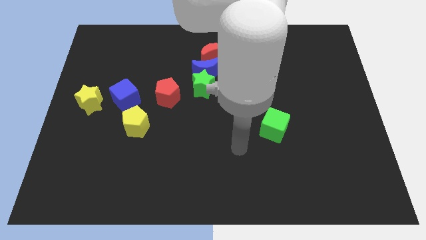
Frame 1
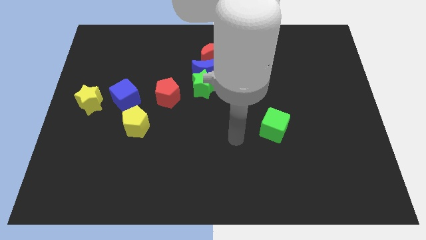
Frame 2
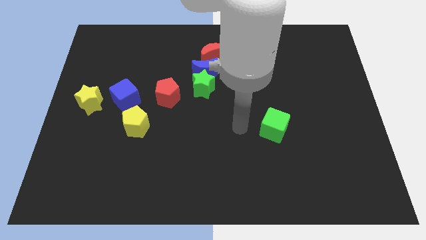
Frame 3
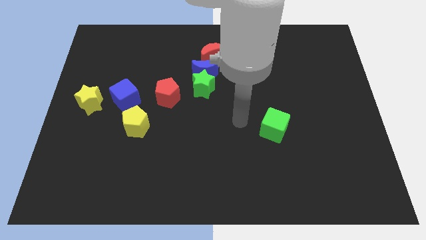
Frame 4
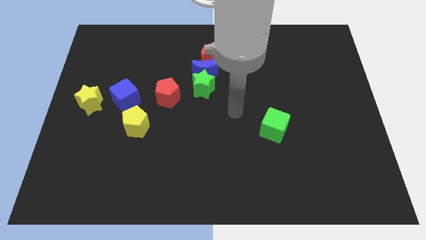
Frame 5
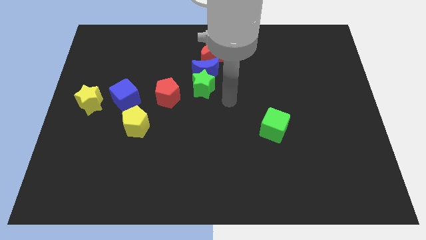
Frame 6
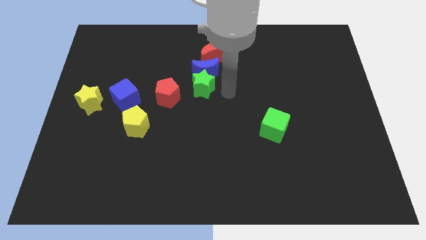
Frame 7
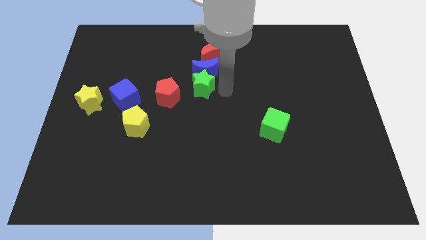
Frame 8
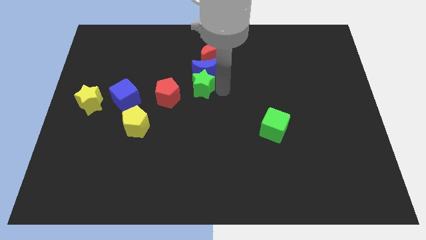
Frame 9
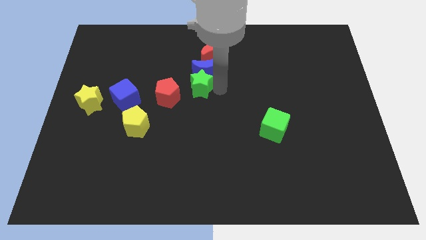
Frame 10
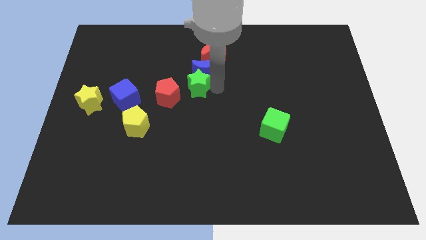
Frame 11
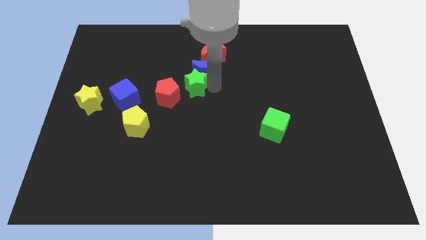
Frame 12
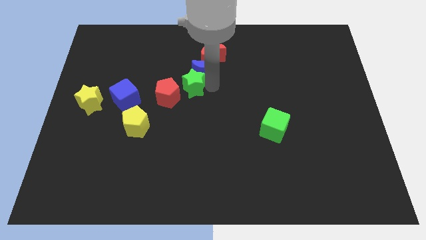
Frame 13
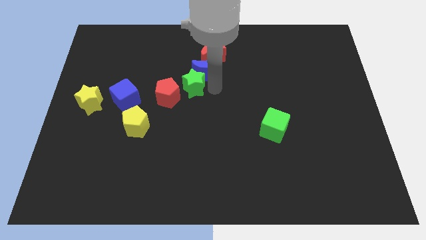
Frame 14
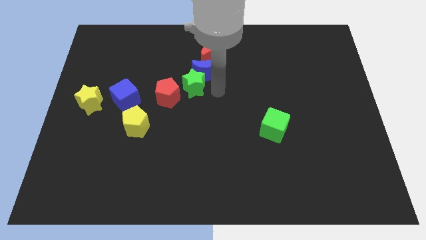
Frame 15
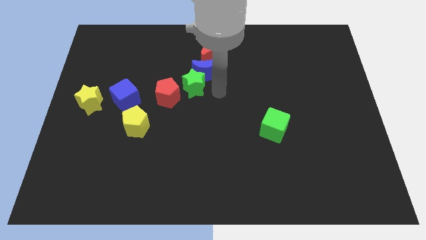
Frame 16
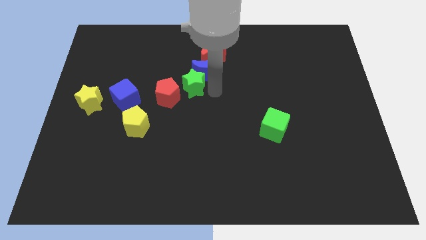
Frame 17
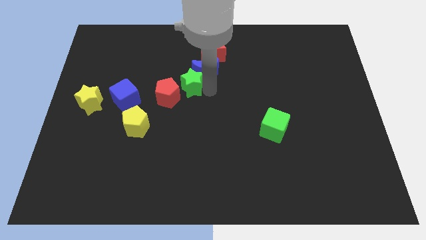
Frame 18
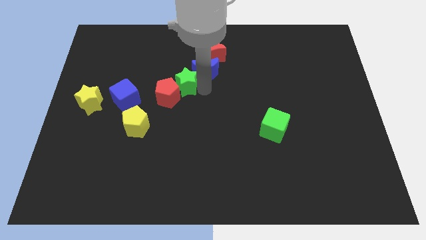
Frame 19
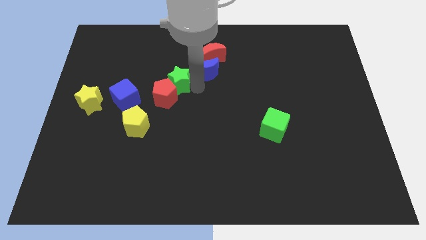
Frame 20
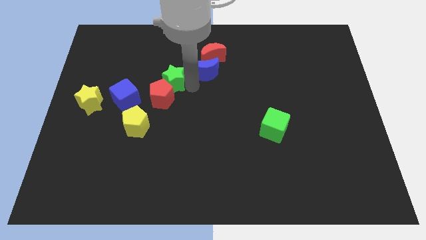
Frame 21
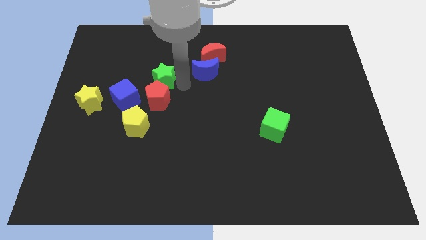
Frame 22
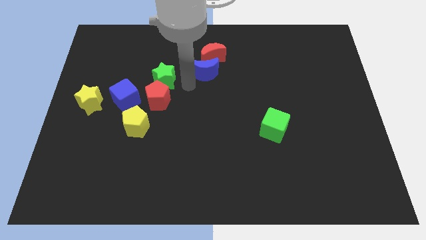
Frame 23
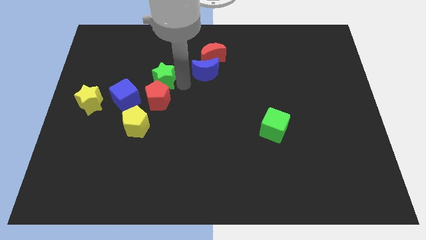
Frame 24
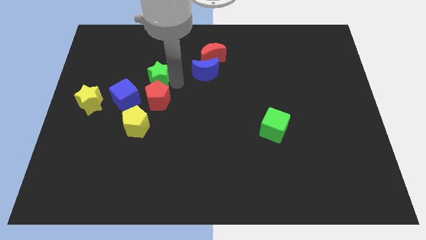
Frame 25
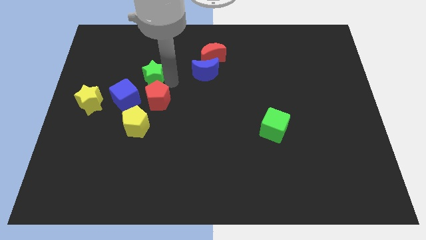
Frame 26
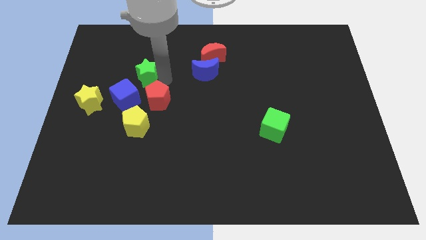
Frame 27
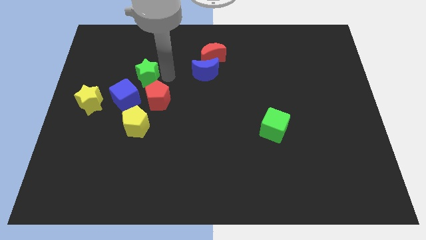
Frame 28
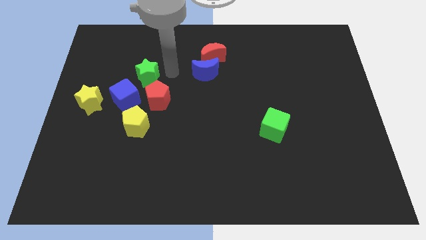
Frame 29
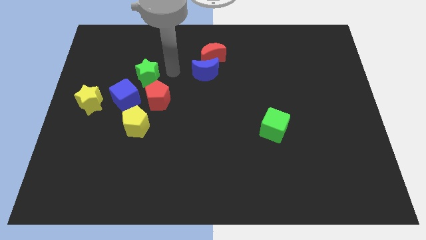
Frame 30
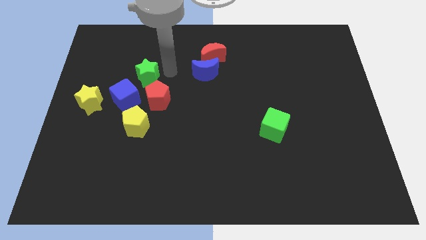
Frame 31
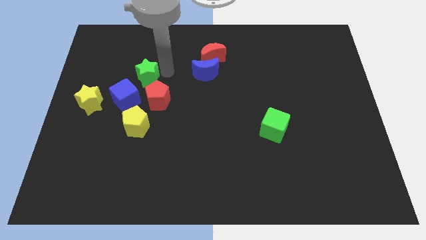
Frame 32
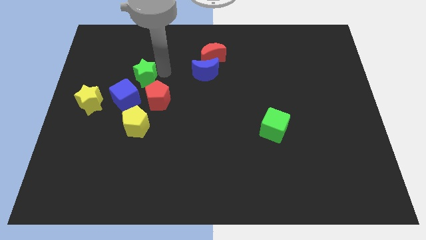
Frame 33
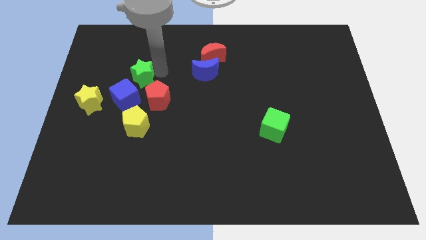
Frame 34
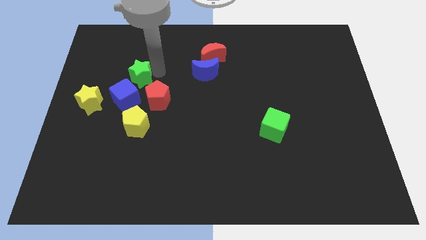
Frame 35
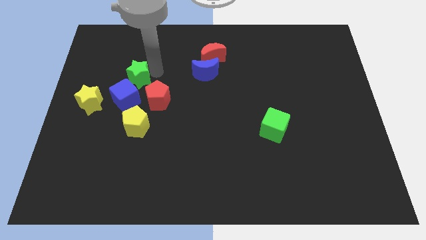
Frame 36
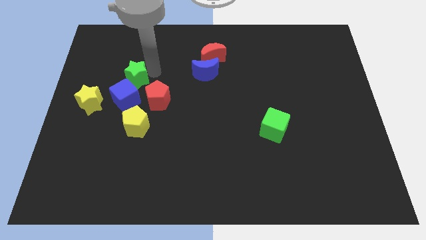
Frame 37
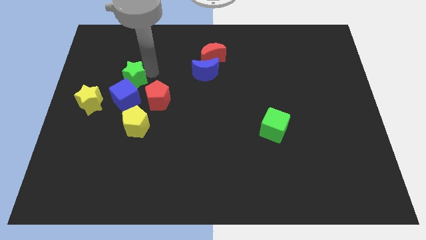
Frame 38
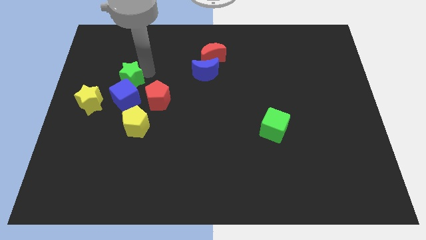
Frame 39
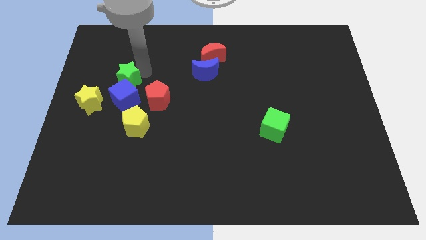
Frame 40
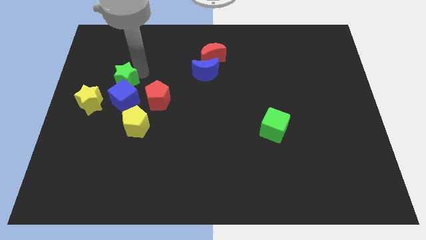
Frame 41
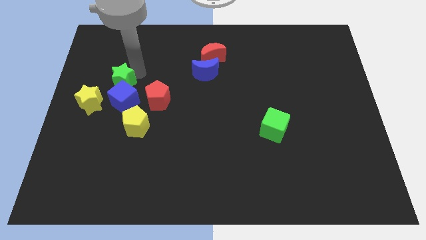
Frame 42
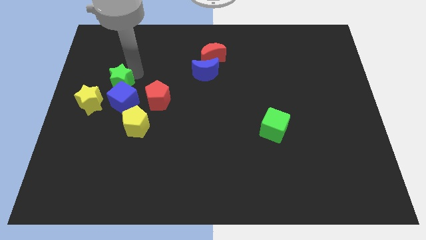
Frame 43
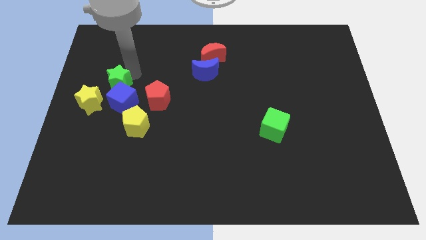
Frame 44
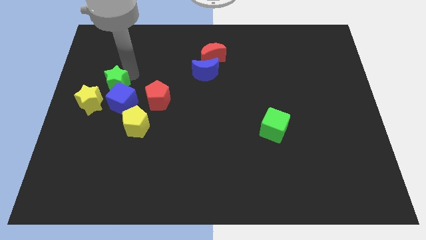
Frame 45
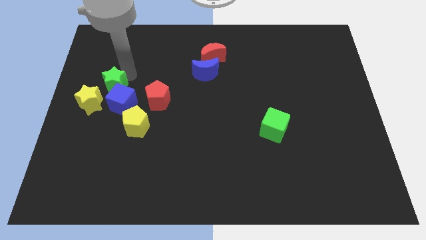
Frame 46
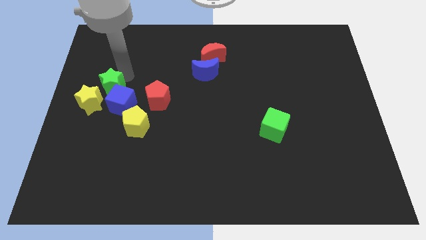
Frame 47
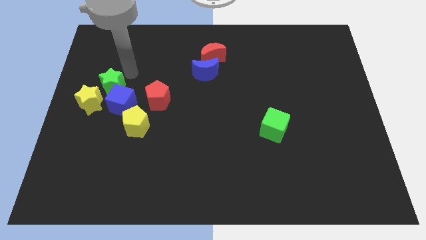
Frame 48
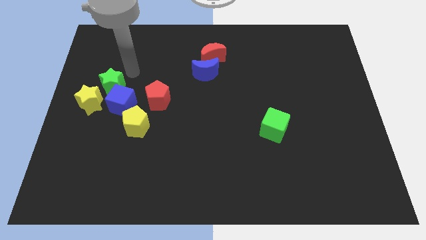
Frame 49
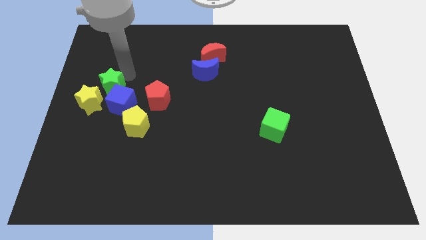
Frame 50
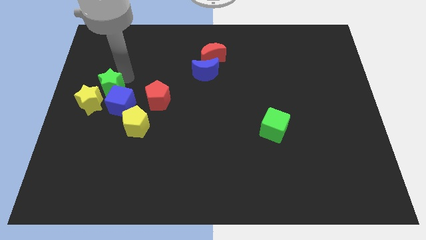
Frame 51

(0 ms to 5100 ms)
move the green star next to the yellow star

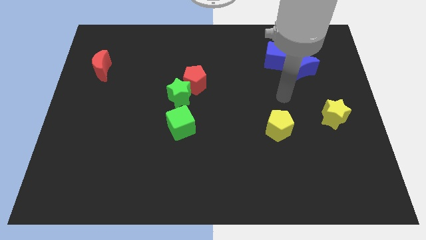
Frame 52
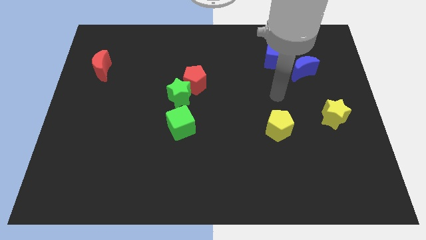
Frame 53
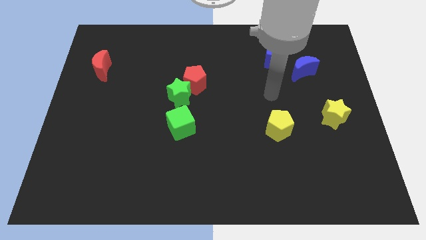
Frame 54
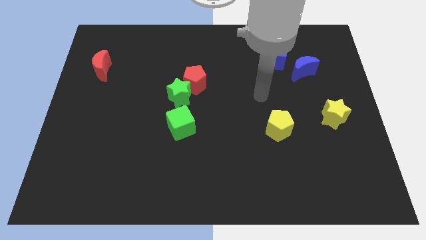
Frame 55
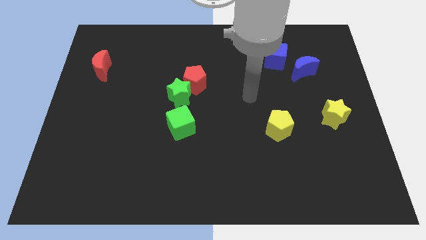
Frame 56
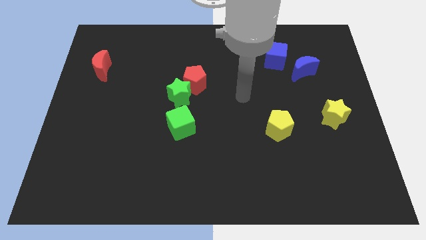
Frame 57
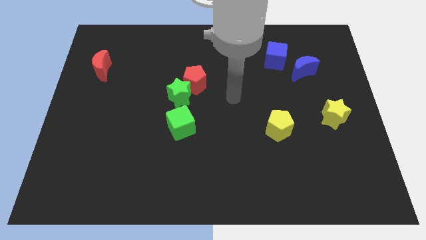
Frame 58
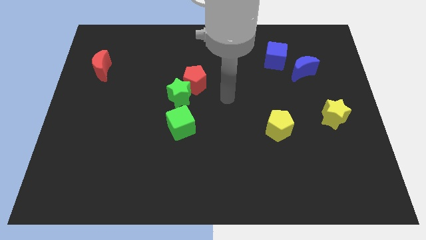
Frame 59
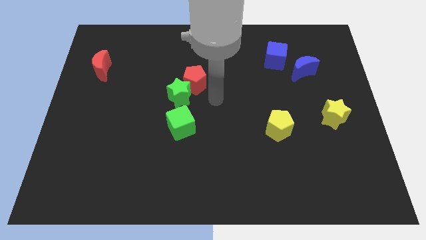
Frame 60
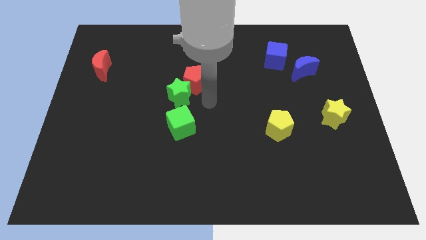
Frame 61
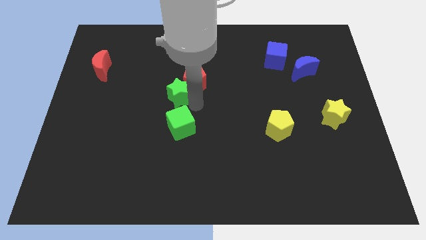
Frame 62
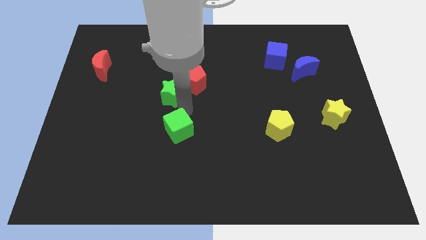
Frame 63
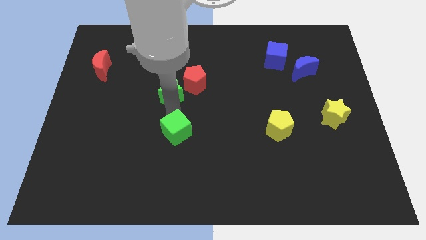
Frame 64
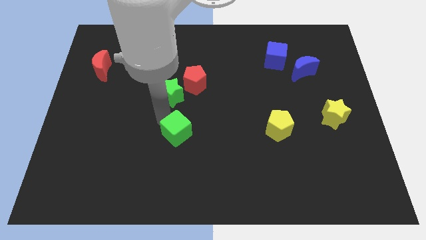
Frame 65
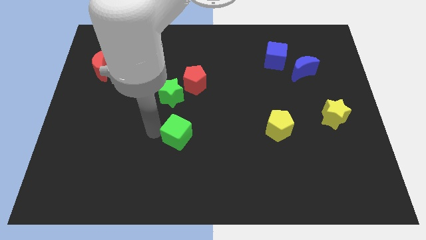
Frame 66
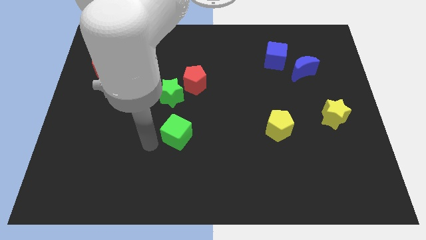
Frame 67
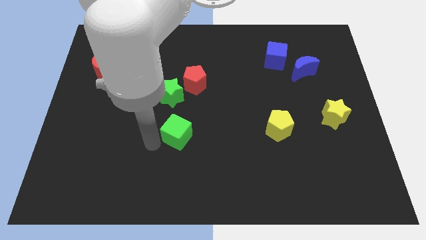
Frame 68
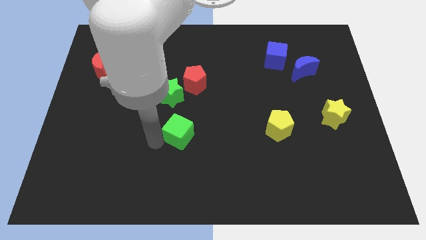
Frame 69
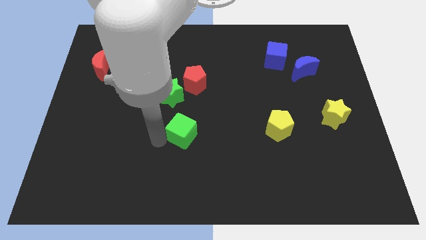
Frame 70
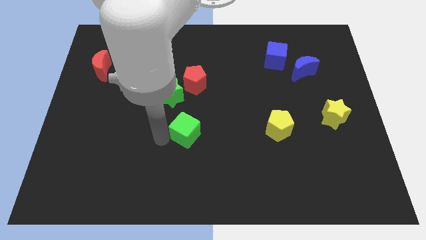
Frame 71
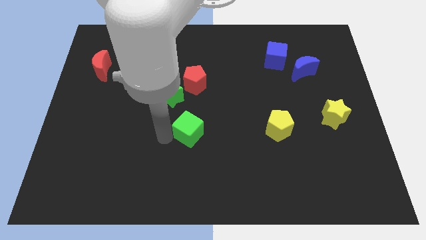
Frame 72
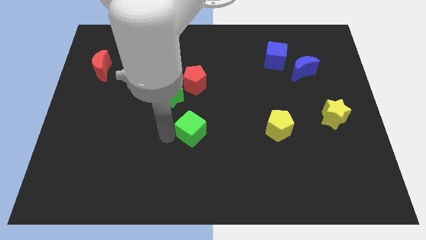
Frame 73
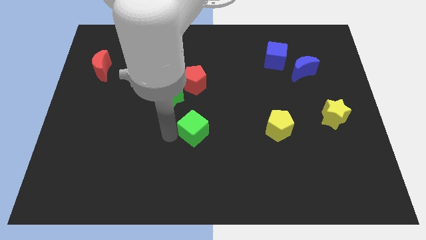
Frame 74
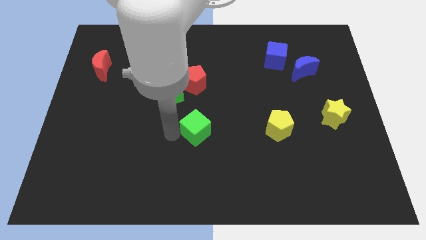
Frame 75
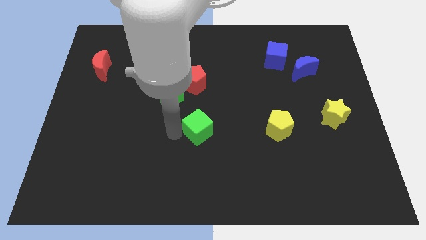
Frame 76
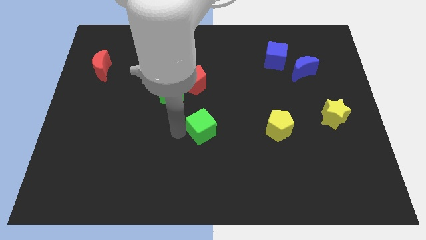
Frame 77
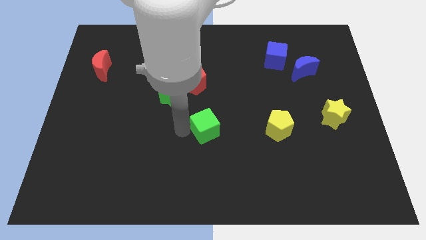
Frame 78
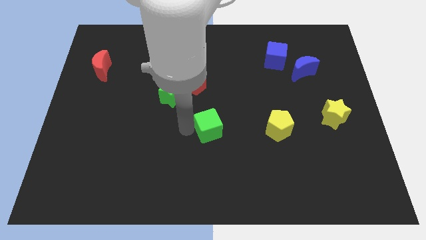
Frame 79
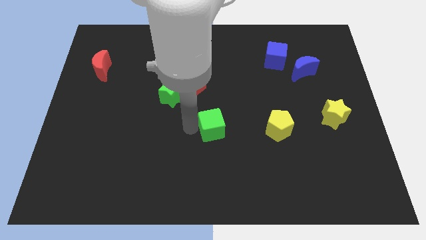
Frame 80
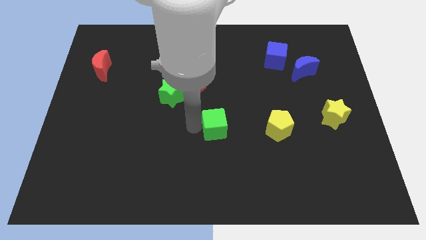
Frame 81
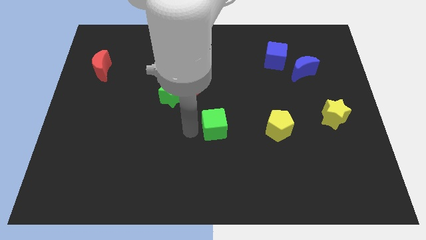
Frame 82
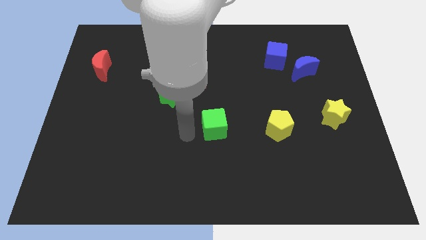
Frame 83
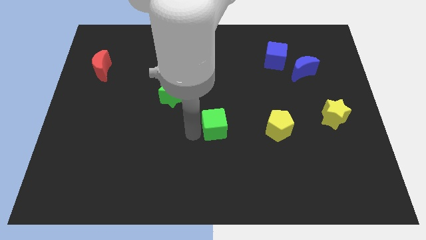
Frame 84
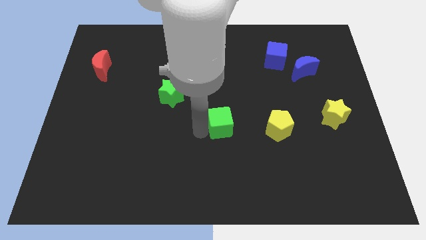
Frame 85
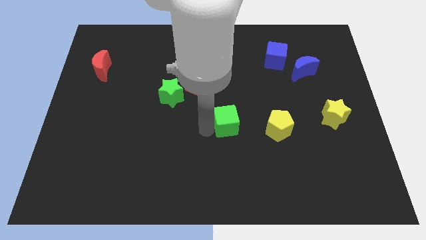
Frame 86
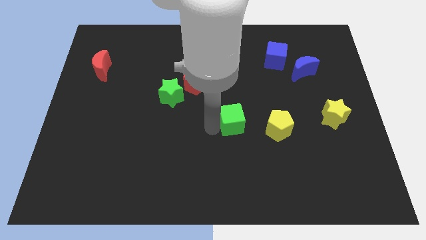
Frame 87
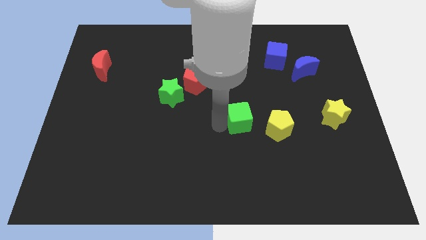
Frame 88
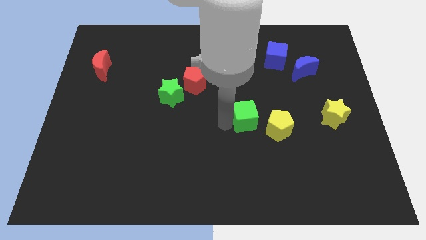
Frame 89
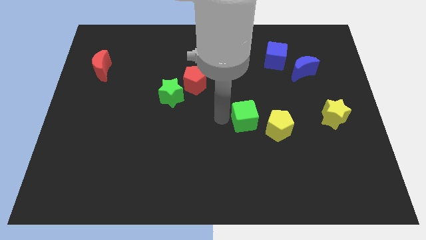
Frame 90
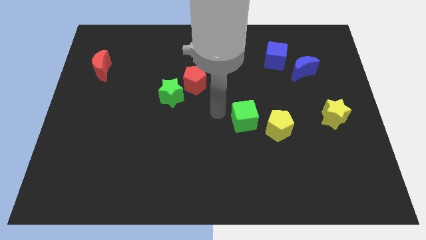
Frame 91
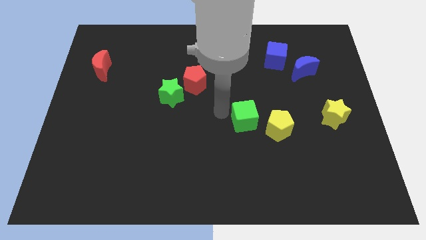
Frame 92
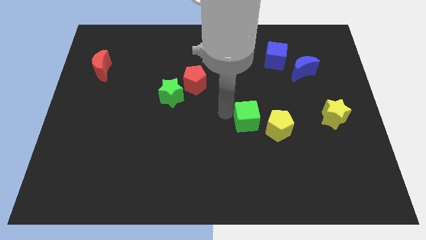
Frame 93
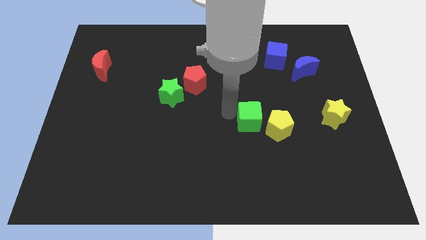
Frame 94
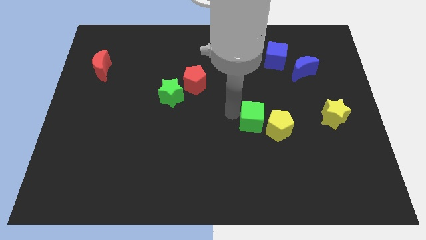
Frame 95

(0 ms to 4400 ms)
put the green cube next to the yellow pentagon
